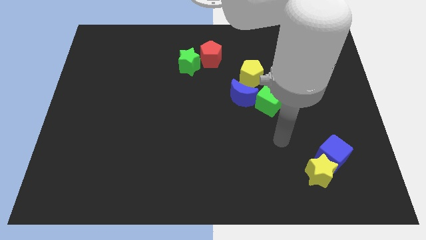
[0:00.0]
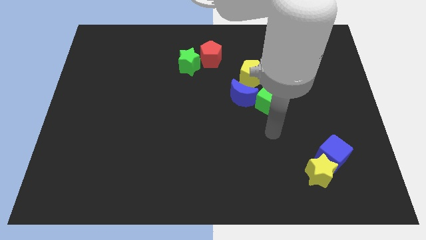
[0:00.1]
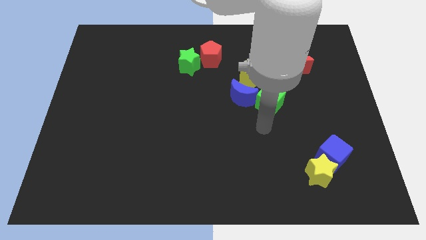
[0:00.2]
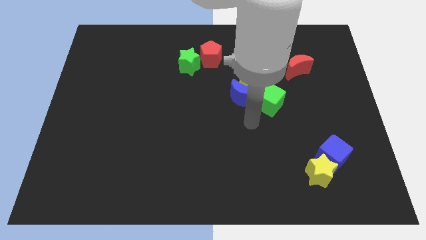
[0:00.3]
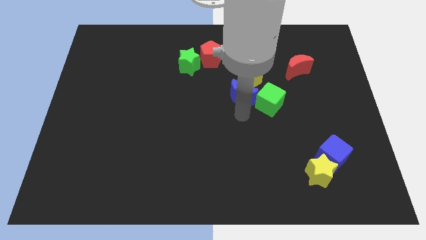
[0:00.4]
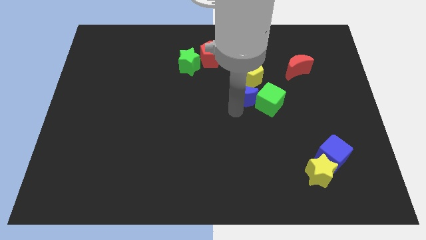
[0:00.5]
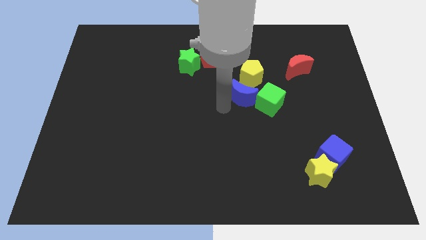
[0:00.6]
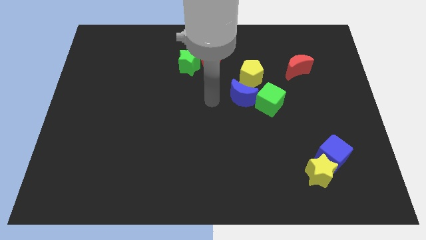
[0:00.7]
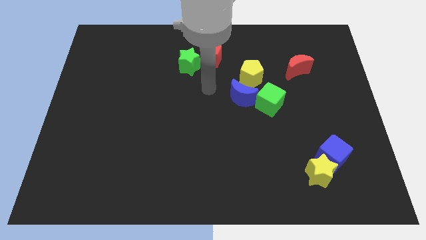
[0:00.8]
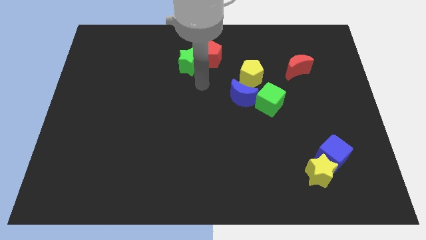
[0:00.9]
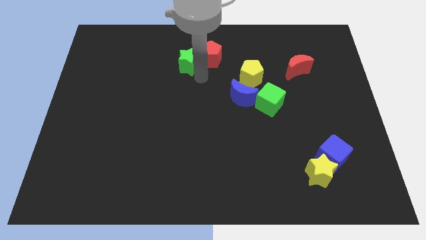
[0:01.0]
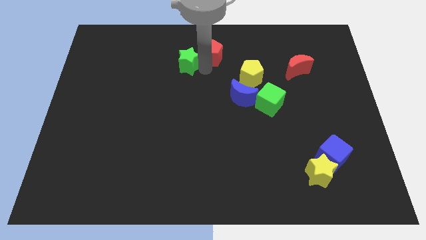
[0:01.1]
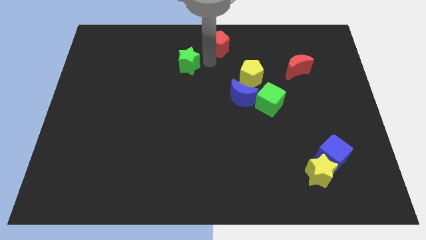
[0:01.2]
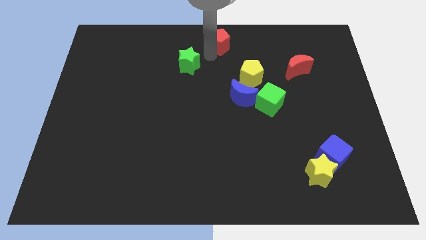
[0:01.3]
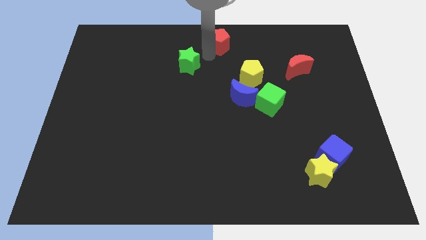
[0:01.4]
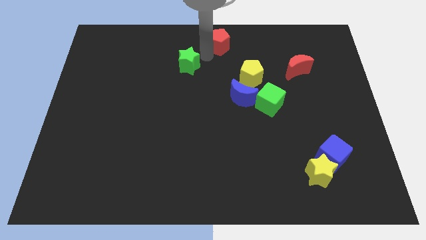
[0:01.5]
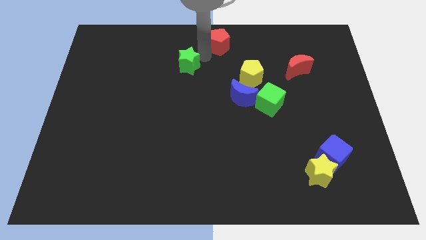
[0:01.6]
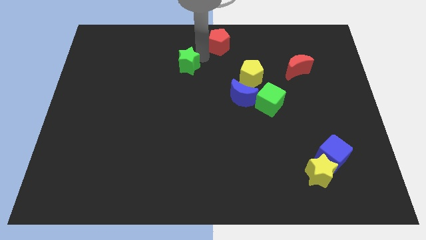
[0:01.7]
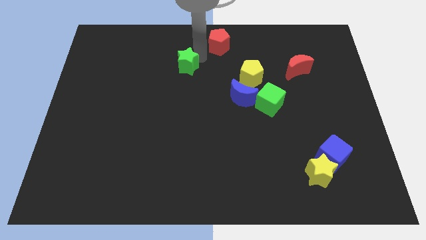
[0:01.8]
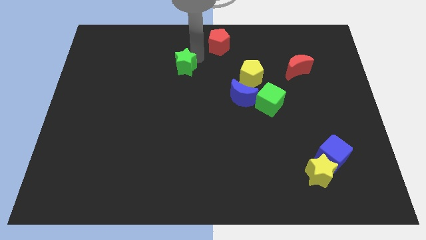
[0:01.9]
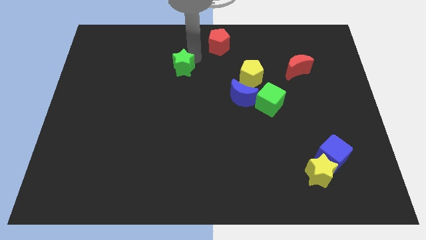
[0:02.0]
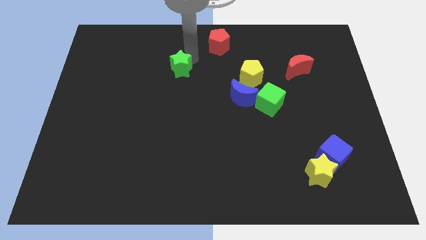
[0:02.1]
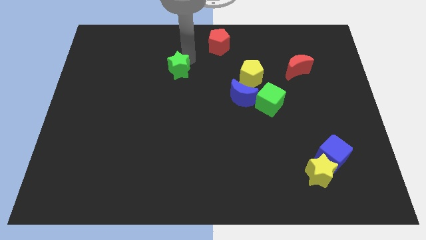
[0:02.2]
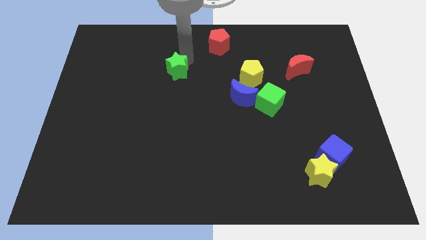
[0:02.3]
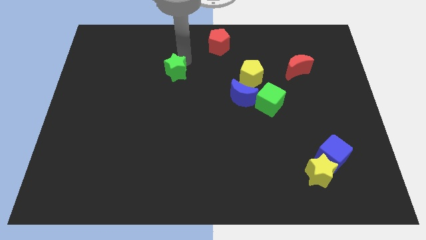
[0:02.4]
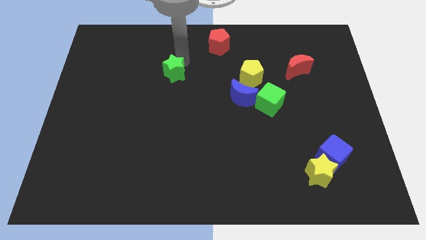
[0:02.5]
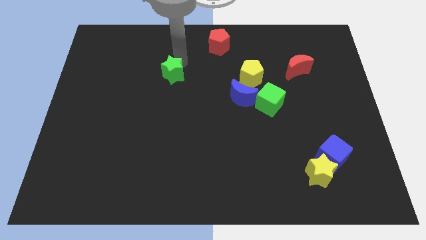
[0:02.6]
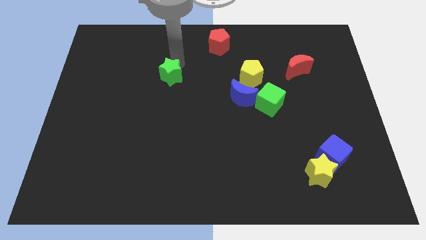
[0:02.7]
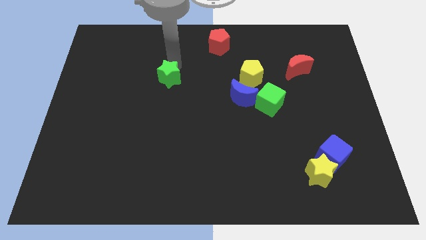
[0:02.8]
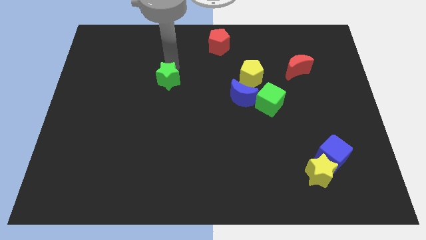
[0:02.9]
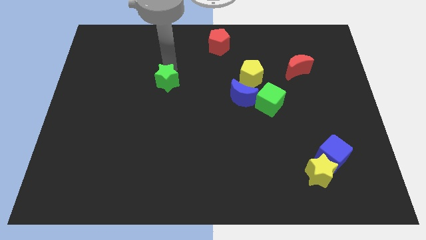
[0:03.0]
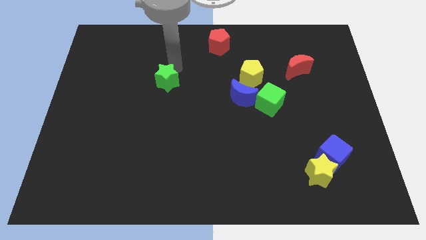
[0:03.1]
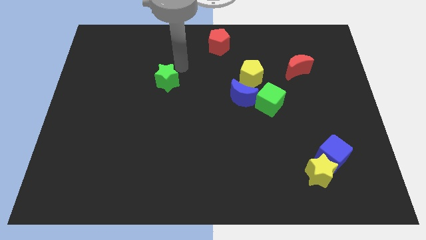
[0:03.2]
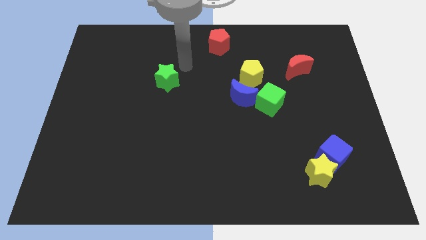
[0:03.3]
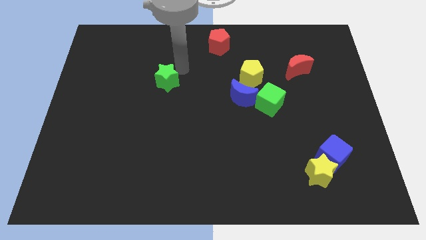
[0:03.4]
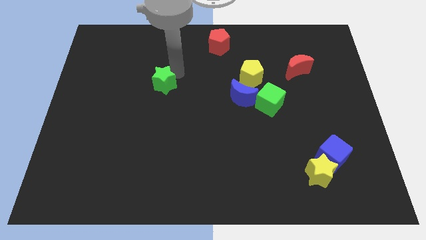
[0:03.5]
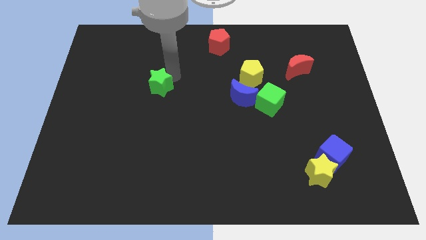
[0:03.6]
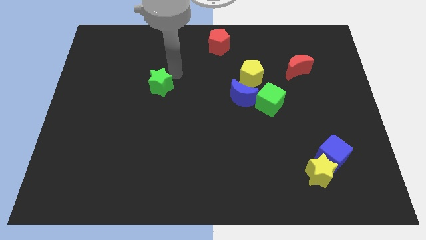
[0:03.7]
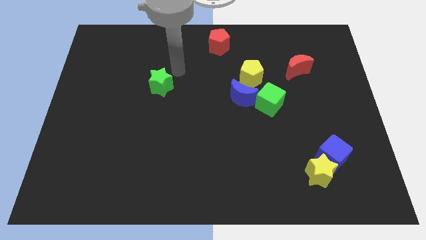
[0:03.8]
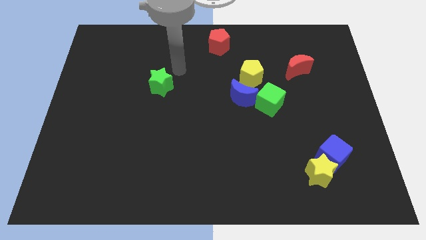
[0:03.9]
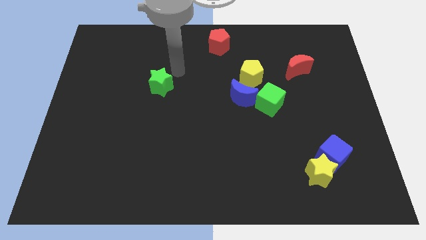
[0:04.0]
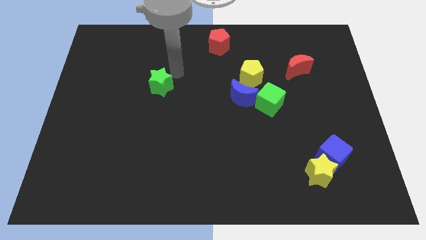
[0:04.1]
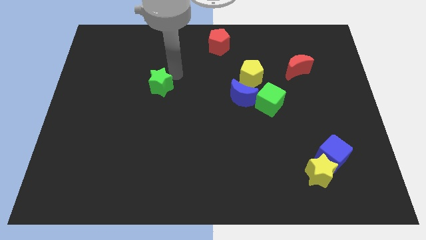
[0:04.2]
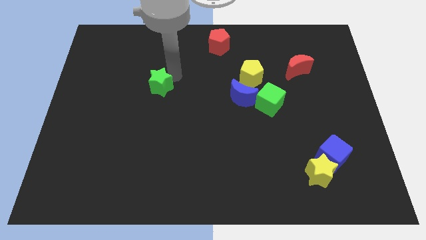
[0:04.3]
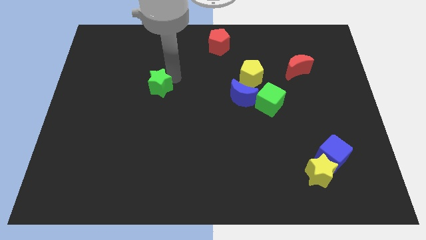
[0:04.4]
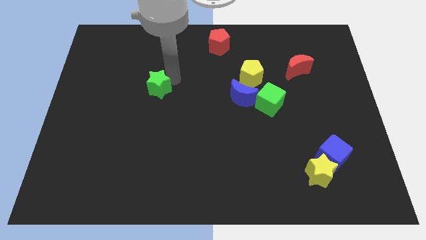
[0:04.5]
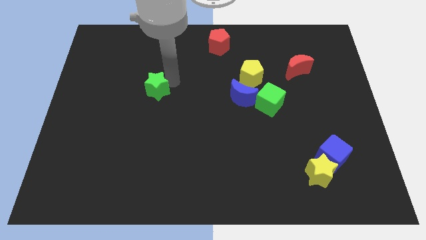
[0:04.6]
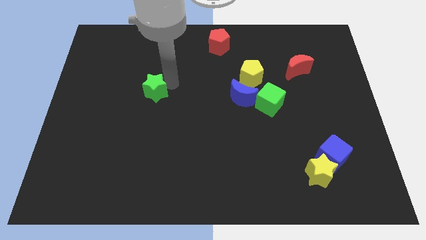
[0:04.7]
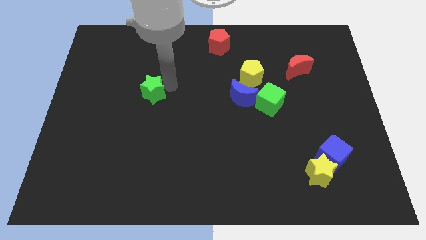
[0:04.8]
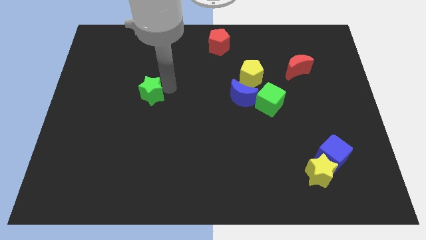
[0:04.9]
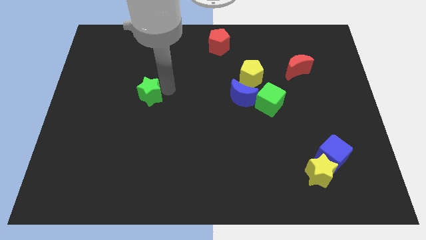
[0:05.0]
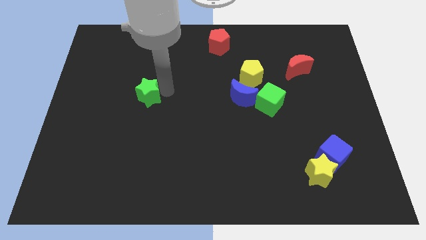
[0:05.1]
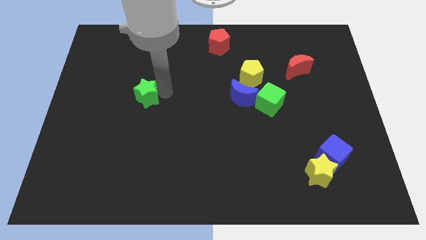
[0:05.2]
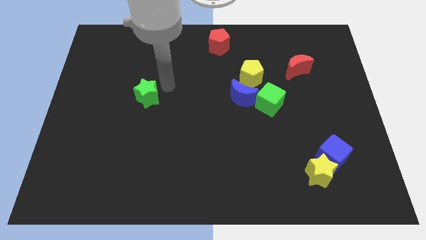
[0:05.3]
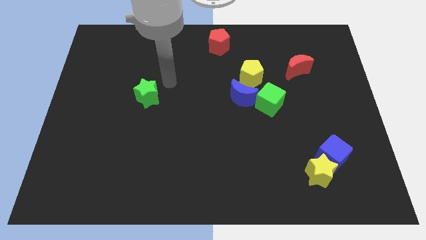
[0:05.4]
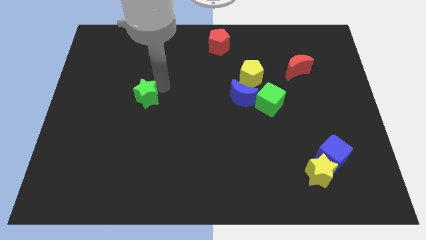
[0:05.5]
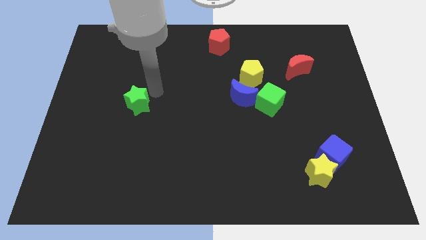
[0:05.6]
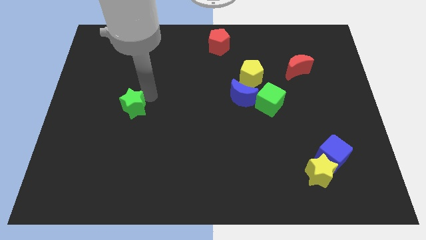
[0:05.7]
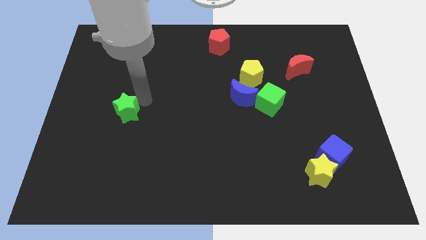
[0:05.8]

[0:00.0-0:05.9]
push the green star down and left

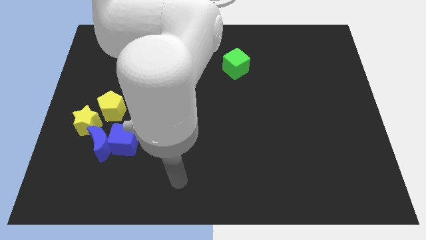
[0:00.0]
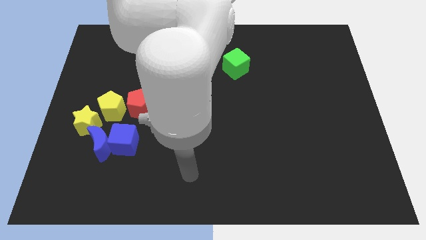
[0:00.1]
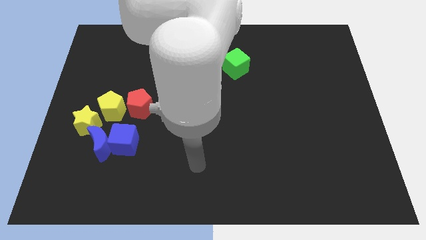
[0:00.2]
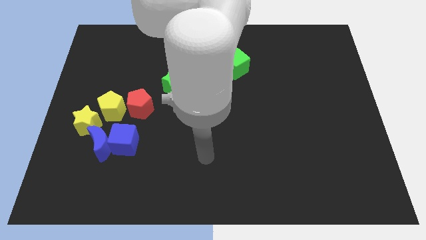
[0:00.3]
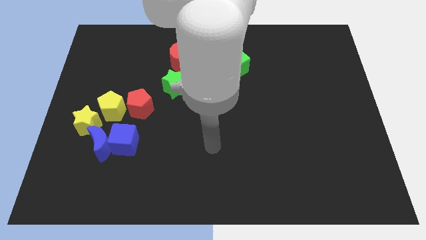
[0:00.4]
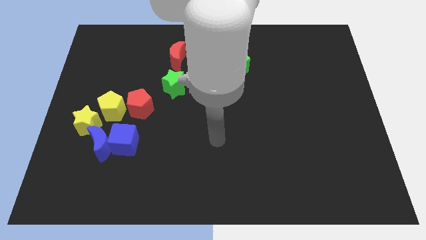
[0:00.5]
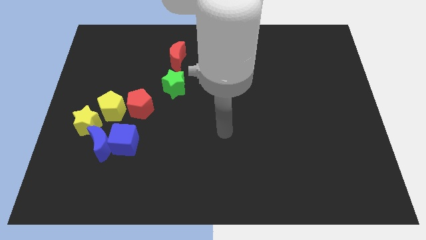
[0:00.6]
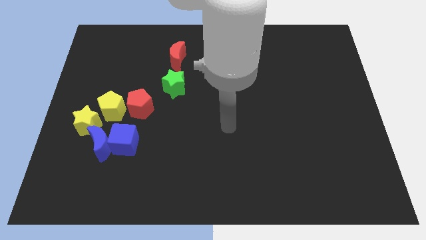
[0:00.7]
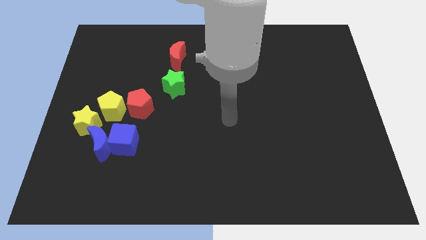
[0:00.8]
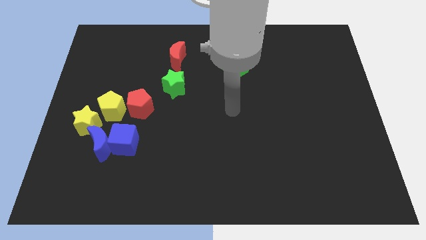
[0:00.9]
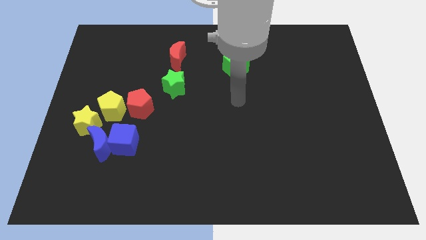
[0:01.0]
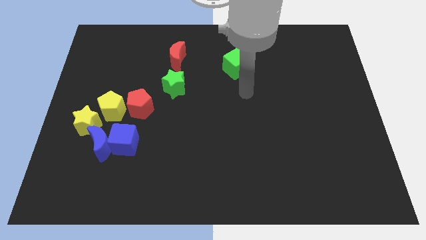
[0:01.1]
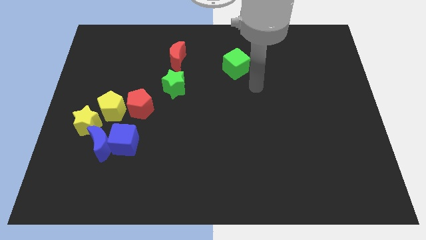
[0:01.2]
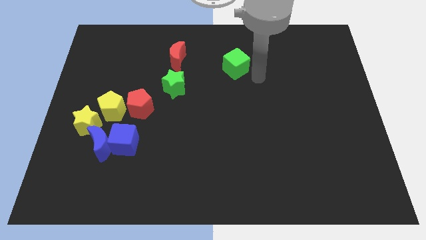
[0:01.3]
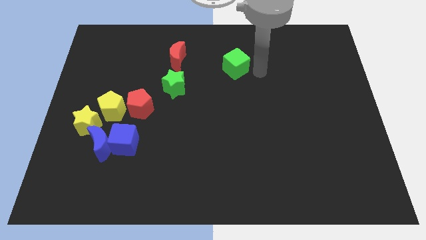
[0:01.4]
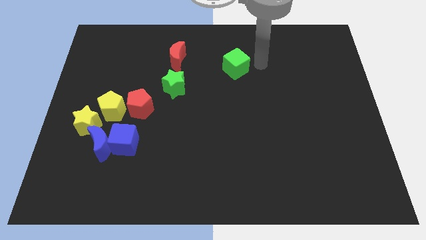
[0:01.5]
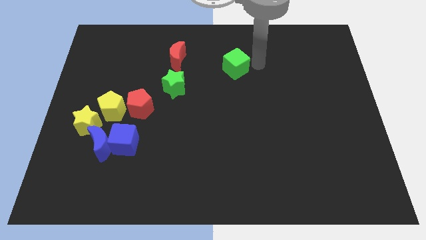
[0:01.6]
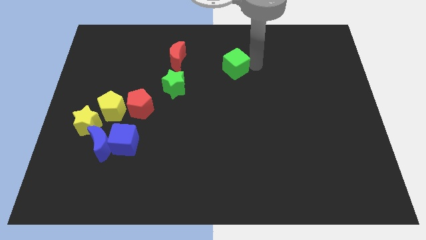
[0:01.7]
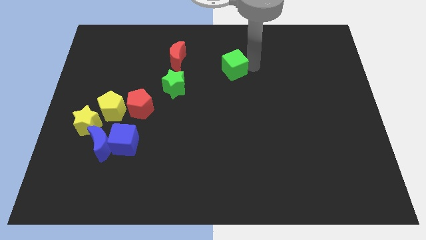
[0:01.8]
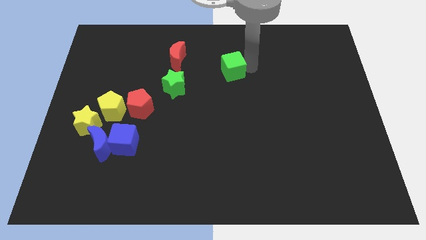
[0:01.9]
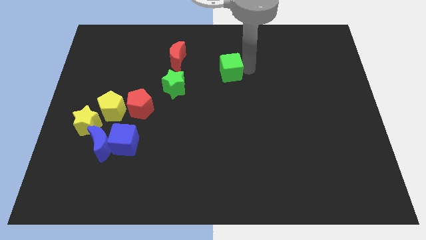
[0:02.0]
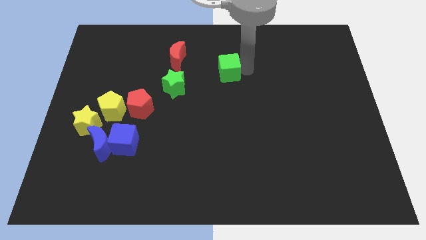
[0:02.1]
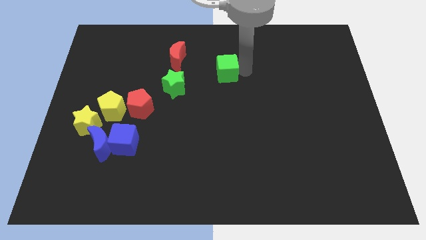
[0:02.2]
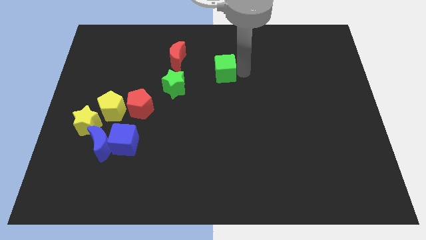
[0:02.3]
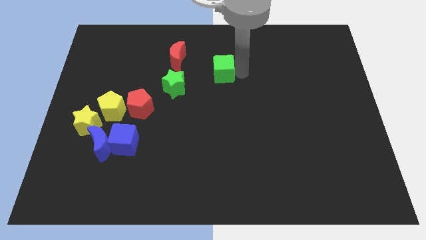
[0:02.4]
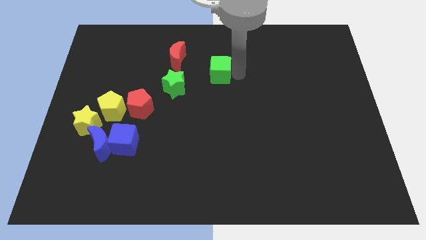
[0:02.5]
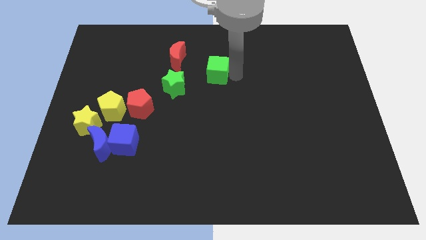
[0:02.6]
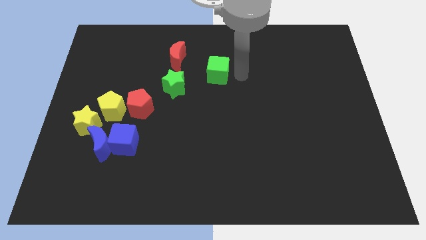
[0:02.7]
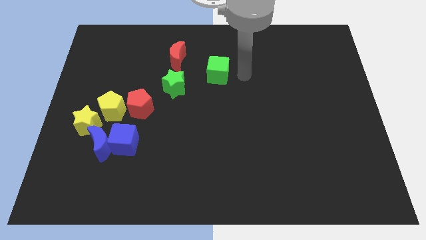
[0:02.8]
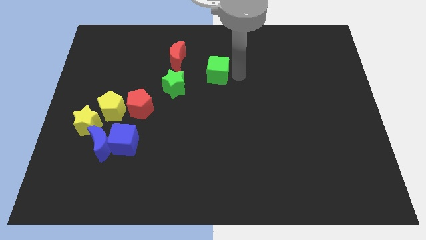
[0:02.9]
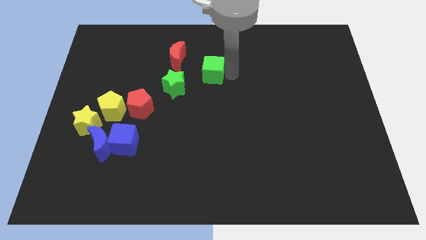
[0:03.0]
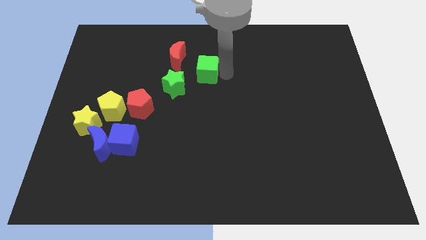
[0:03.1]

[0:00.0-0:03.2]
slightly push the green cube to the left
